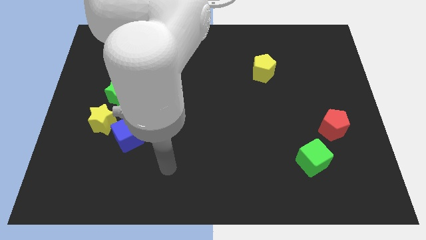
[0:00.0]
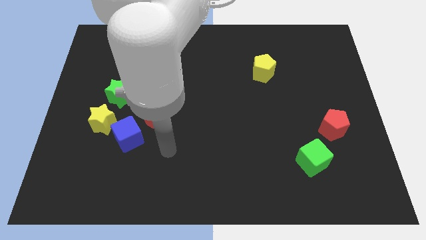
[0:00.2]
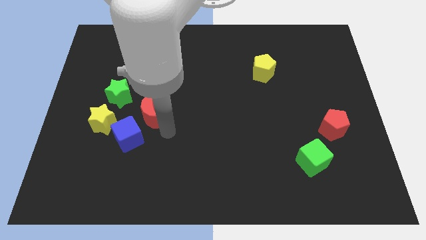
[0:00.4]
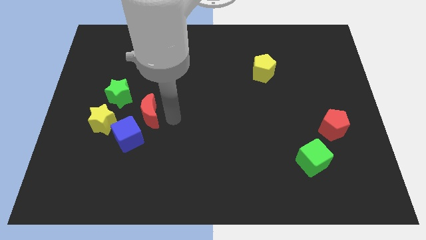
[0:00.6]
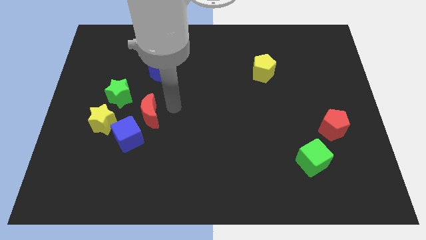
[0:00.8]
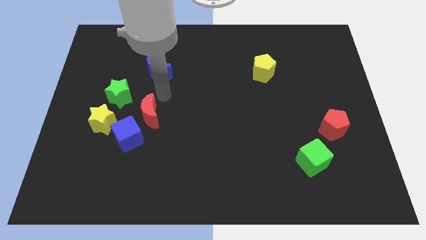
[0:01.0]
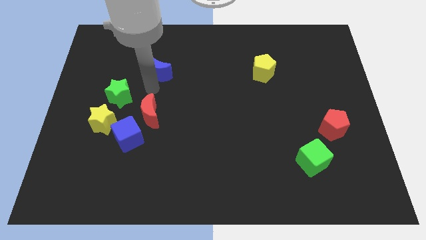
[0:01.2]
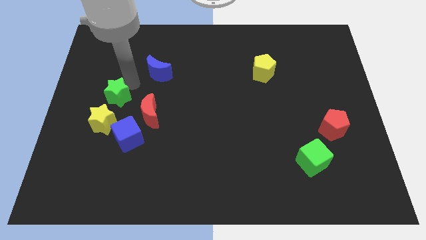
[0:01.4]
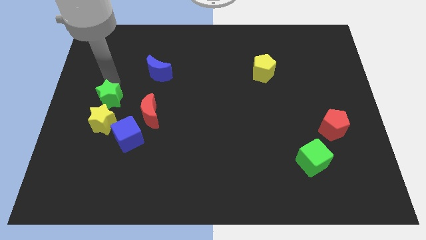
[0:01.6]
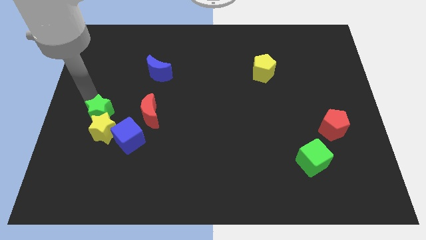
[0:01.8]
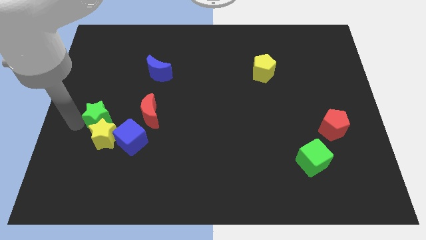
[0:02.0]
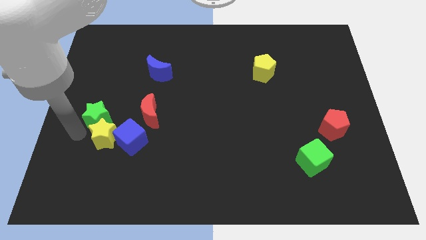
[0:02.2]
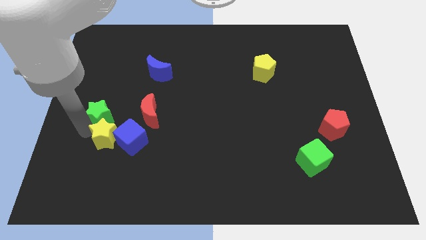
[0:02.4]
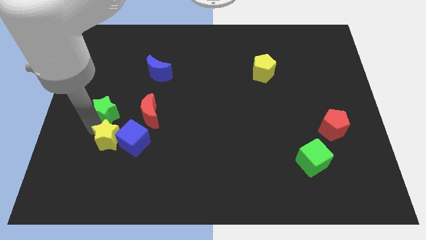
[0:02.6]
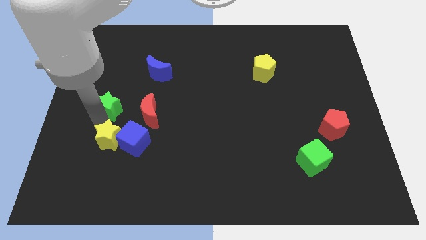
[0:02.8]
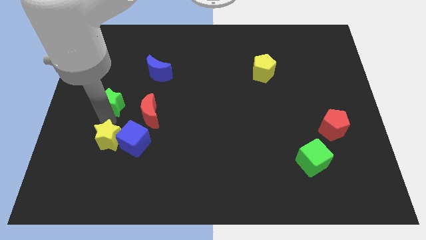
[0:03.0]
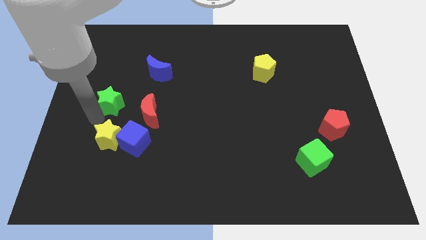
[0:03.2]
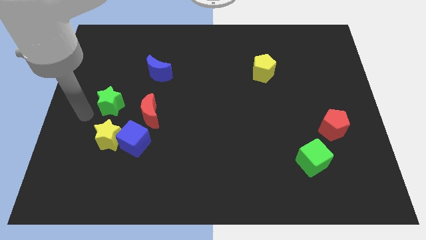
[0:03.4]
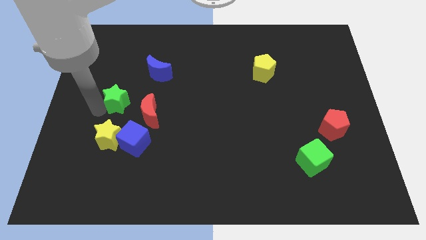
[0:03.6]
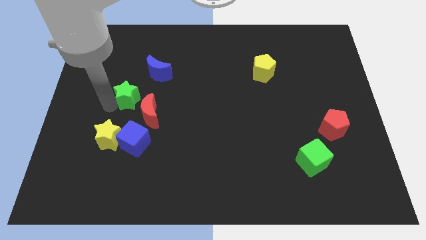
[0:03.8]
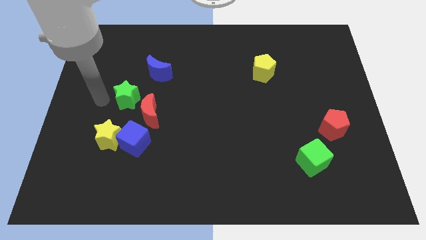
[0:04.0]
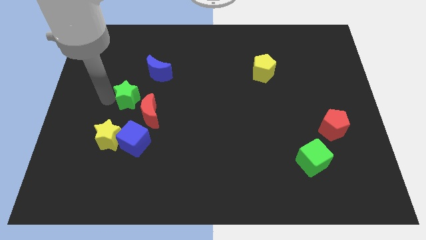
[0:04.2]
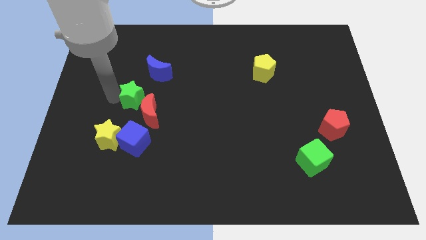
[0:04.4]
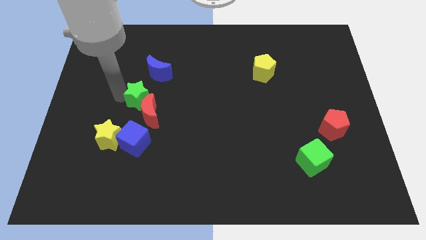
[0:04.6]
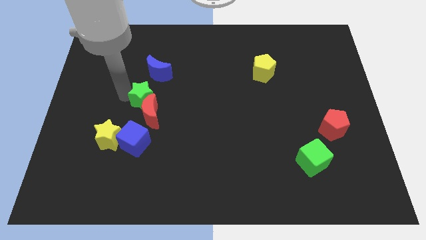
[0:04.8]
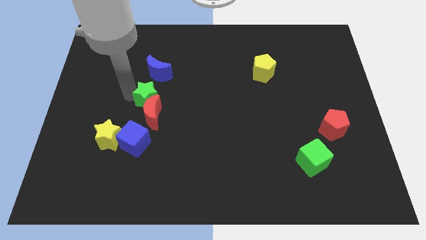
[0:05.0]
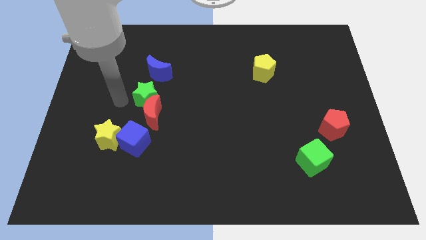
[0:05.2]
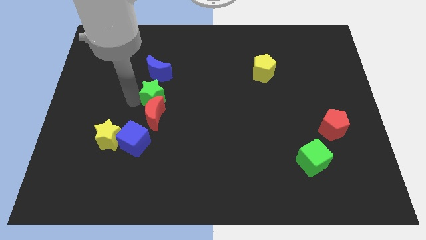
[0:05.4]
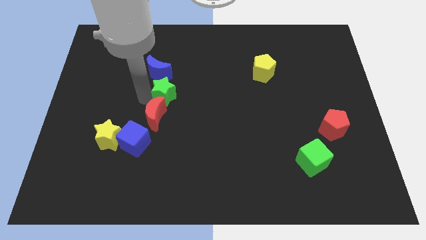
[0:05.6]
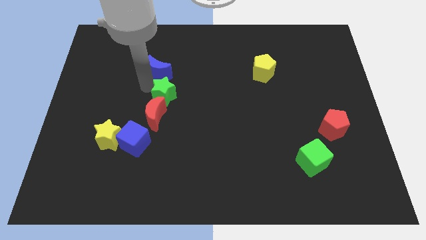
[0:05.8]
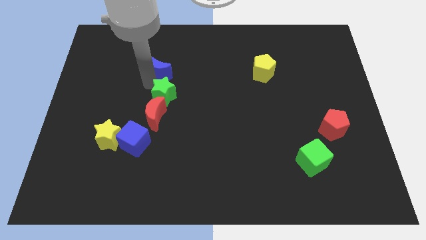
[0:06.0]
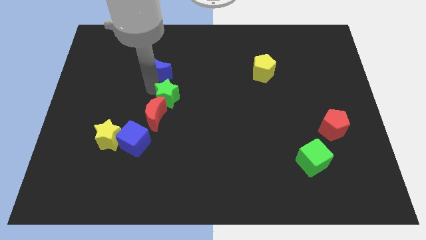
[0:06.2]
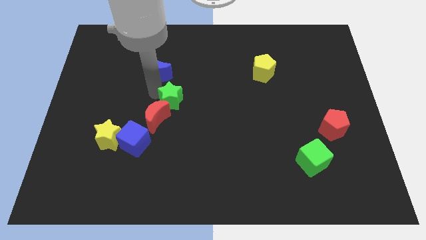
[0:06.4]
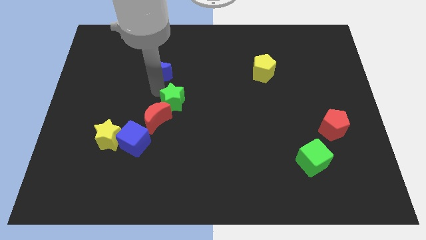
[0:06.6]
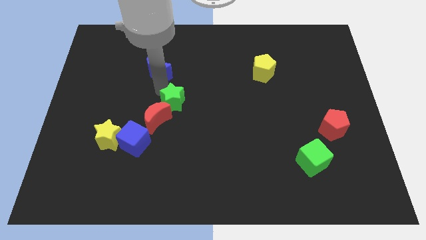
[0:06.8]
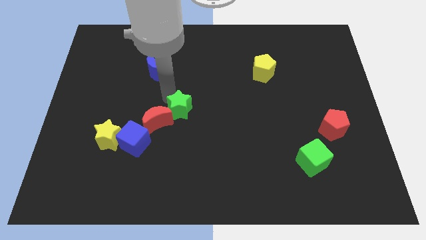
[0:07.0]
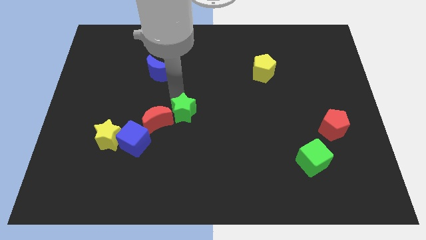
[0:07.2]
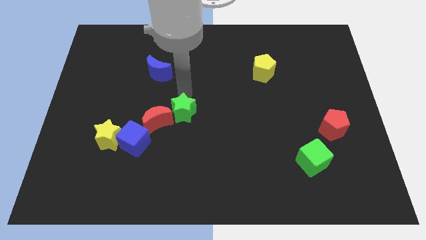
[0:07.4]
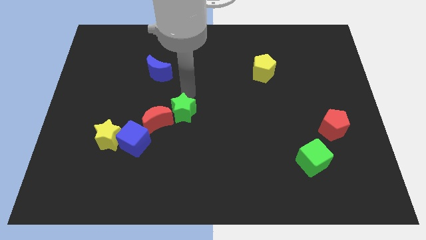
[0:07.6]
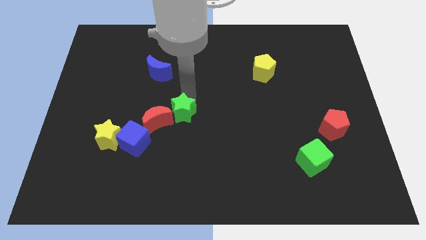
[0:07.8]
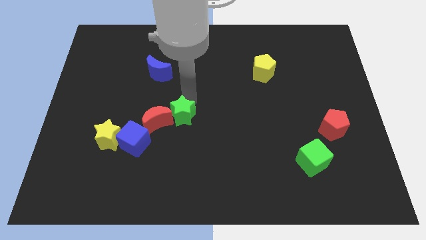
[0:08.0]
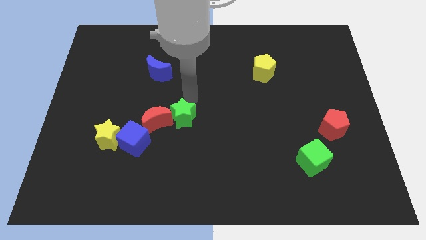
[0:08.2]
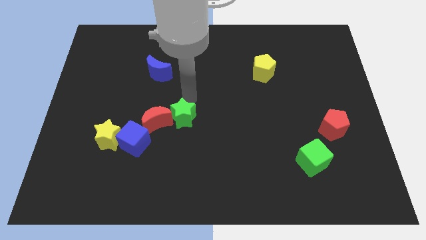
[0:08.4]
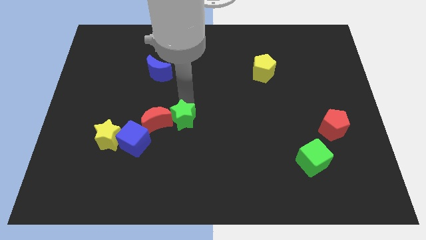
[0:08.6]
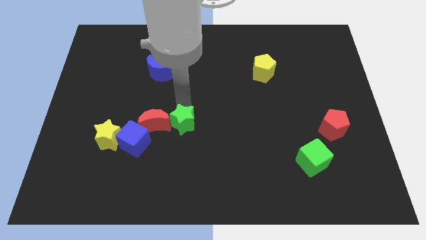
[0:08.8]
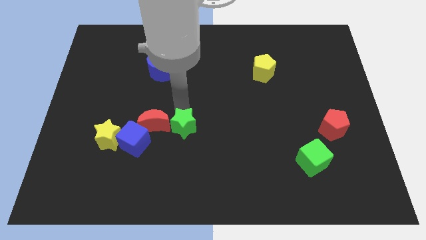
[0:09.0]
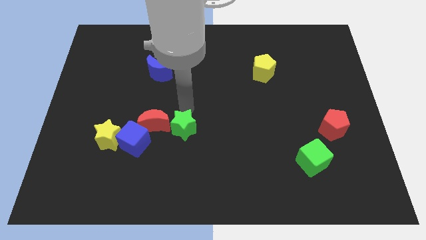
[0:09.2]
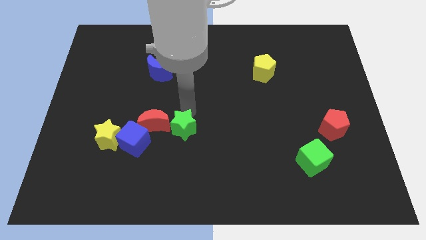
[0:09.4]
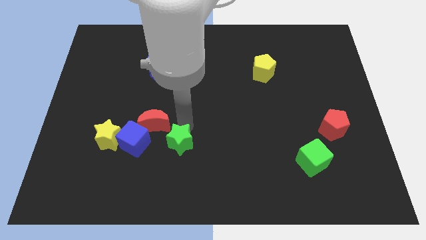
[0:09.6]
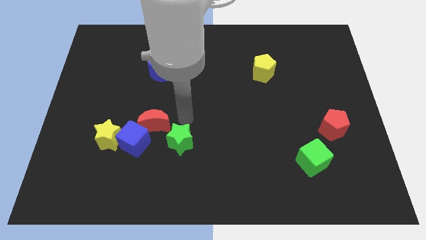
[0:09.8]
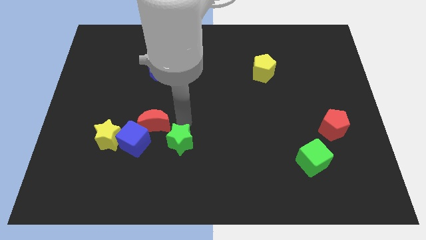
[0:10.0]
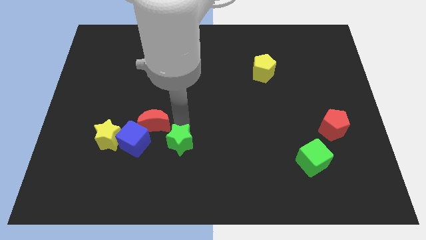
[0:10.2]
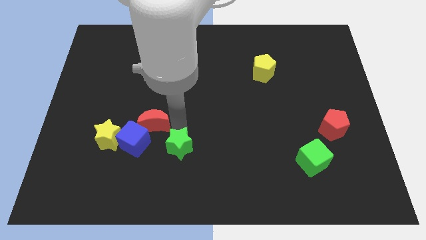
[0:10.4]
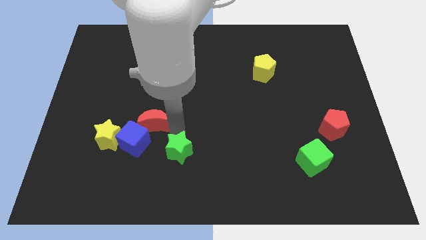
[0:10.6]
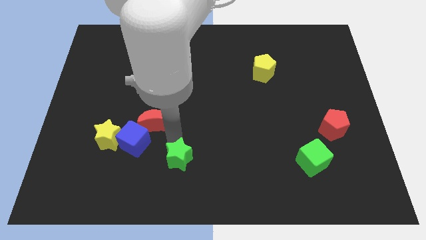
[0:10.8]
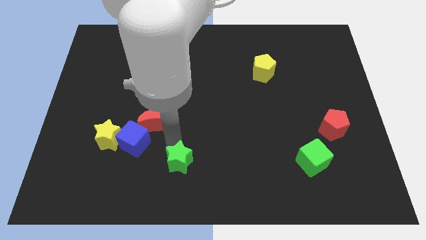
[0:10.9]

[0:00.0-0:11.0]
push the green star to the bottom

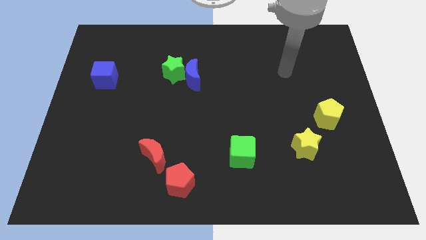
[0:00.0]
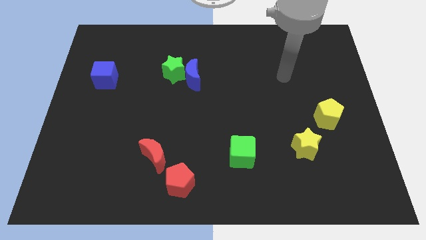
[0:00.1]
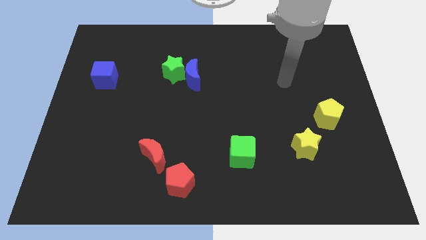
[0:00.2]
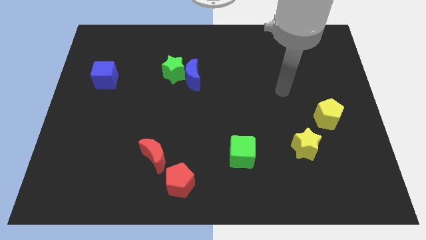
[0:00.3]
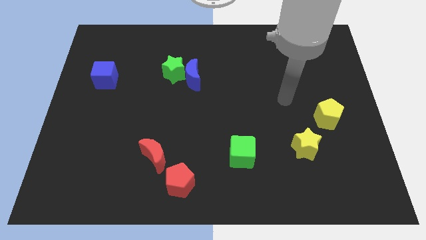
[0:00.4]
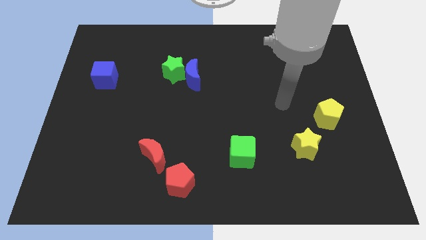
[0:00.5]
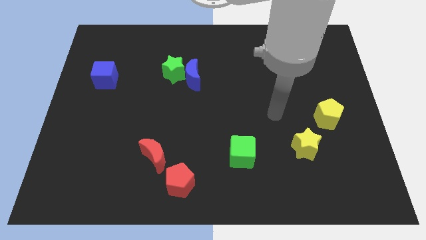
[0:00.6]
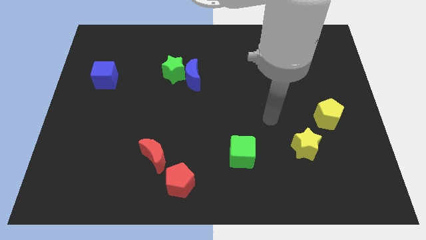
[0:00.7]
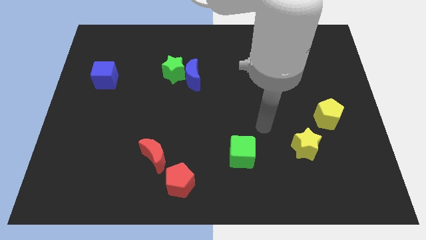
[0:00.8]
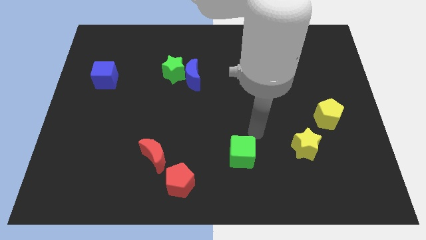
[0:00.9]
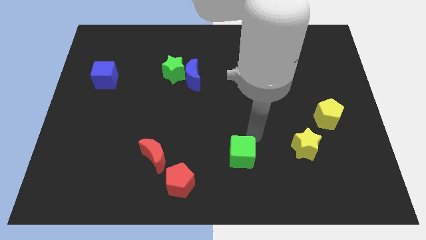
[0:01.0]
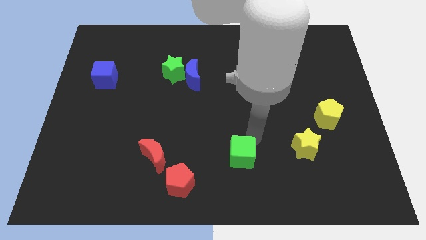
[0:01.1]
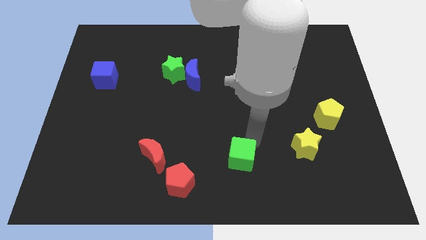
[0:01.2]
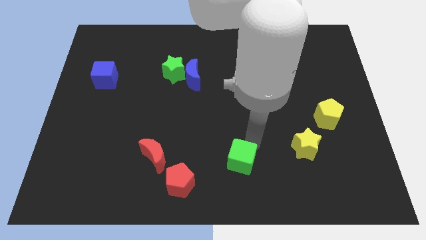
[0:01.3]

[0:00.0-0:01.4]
put the green cube to the bottom side
